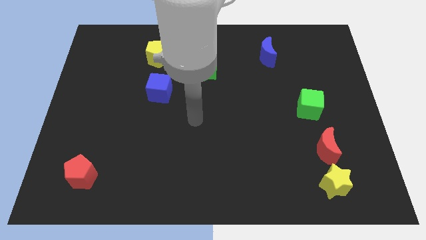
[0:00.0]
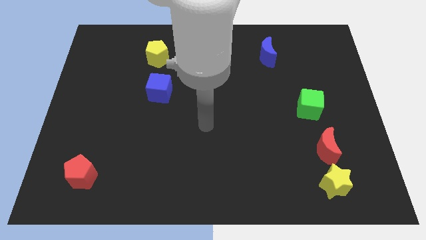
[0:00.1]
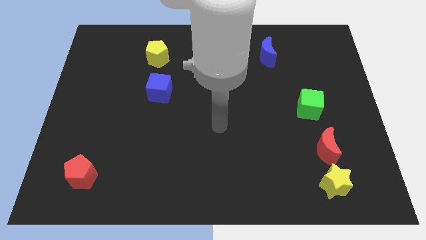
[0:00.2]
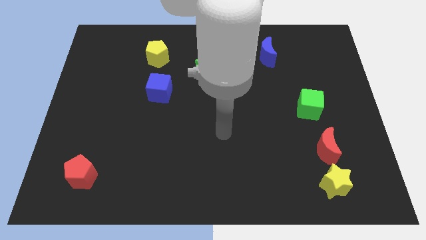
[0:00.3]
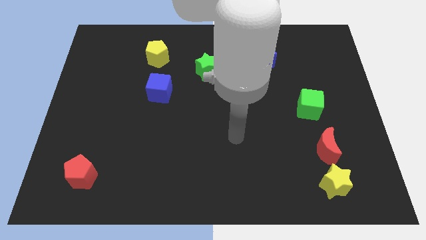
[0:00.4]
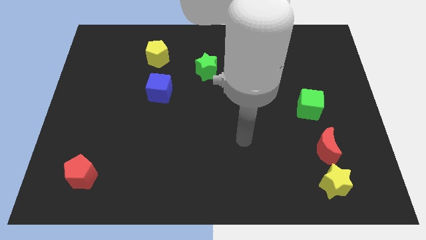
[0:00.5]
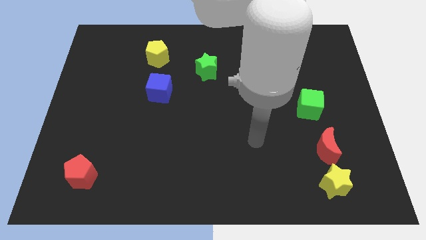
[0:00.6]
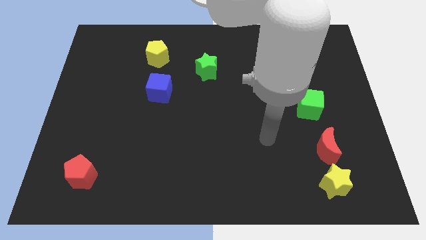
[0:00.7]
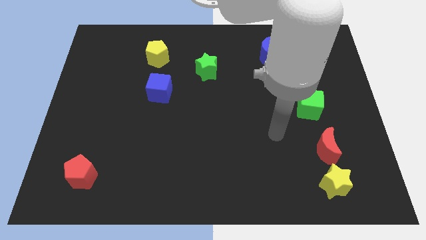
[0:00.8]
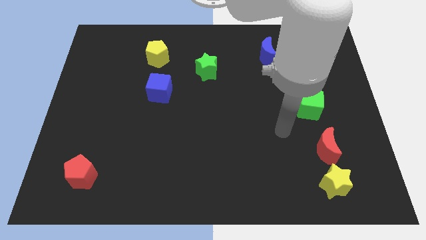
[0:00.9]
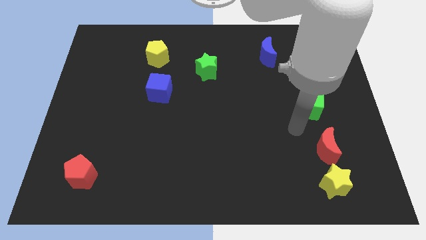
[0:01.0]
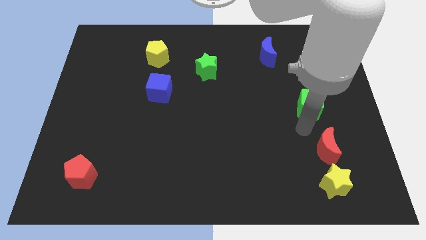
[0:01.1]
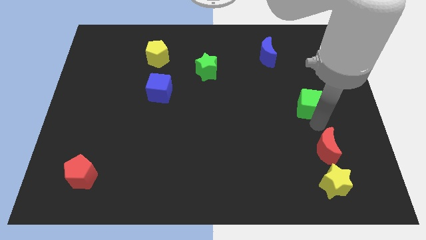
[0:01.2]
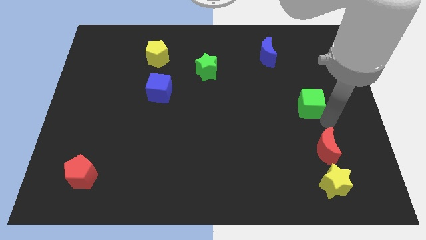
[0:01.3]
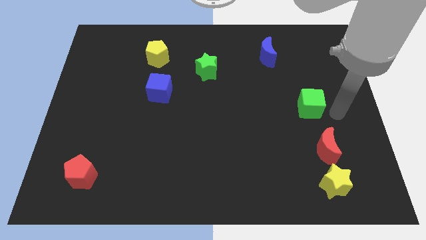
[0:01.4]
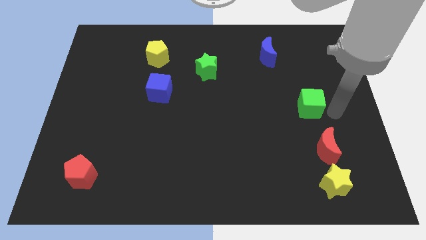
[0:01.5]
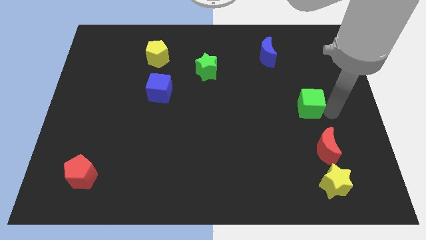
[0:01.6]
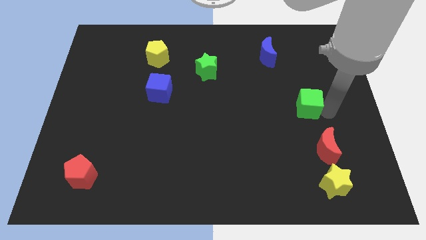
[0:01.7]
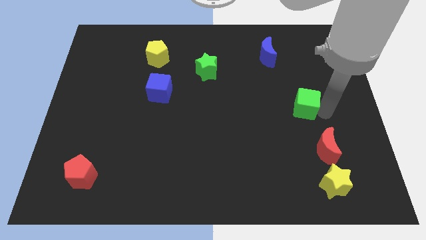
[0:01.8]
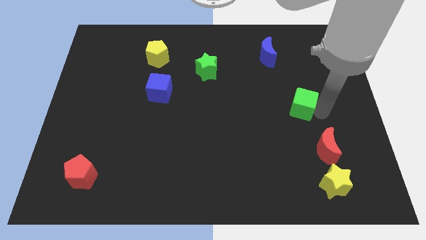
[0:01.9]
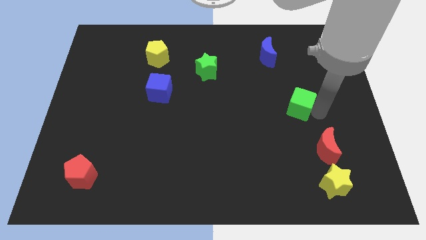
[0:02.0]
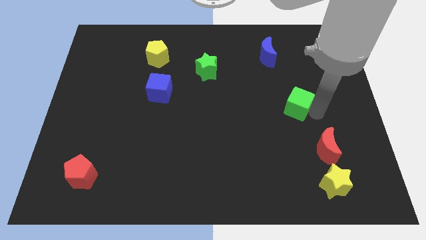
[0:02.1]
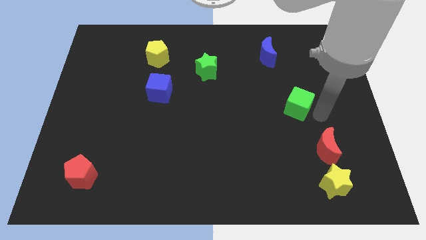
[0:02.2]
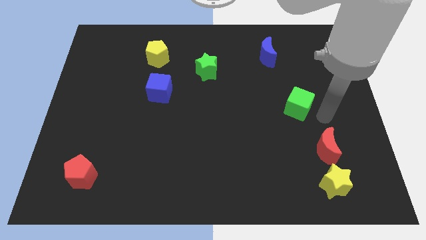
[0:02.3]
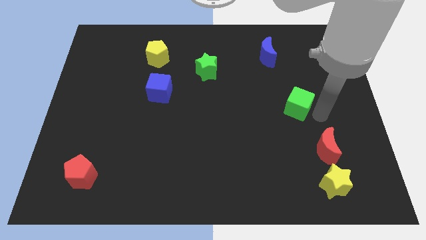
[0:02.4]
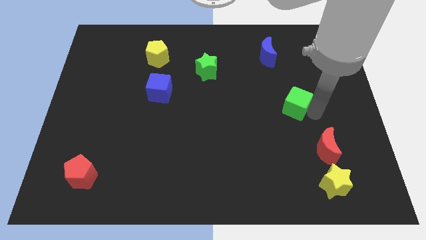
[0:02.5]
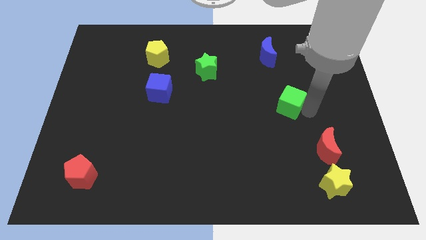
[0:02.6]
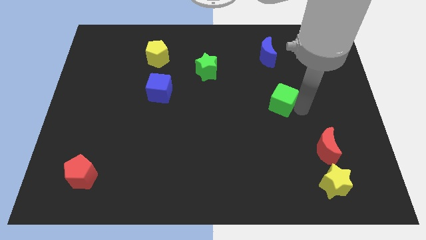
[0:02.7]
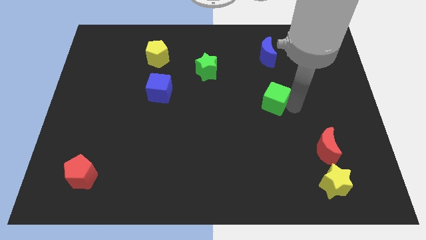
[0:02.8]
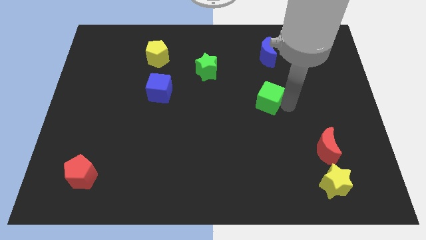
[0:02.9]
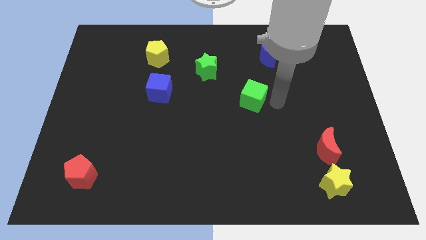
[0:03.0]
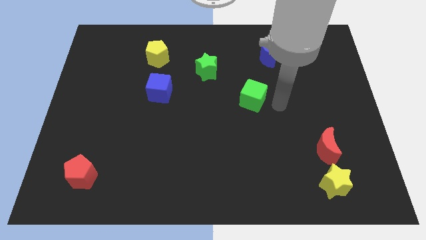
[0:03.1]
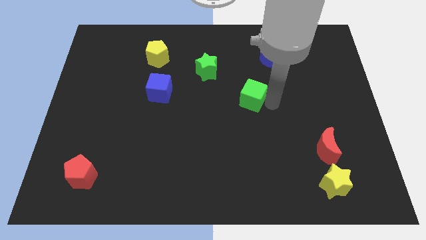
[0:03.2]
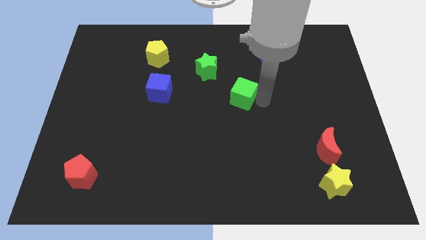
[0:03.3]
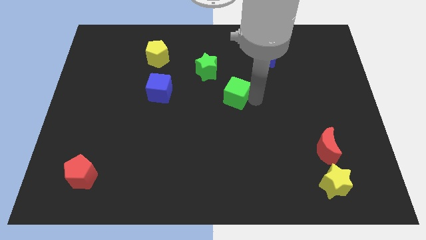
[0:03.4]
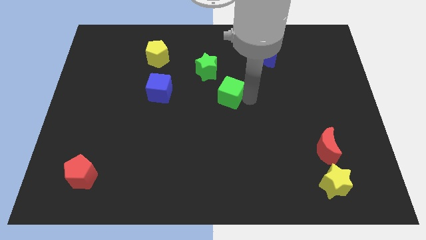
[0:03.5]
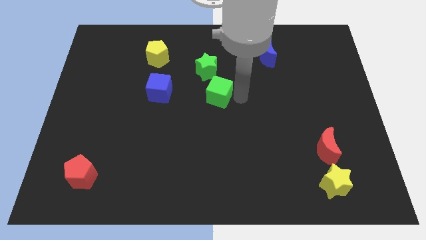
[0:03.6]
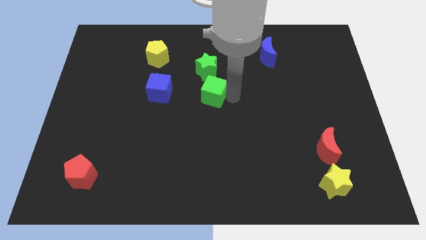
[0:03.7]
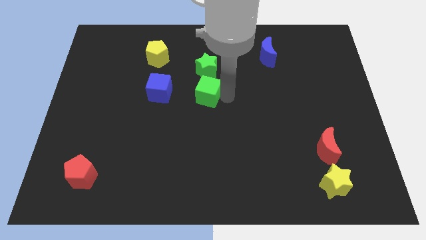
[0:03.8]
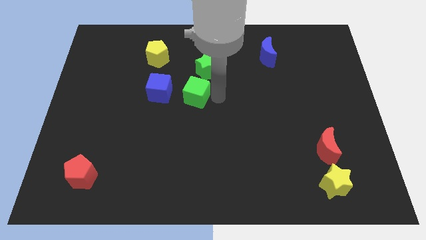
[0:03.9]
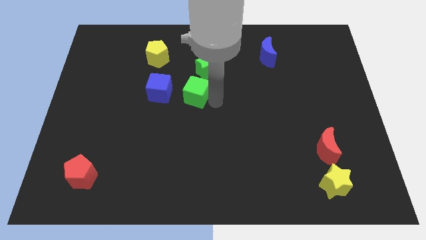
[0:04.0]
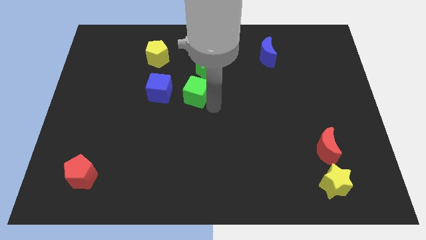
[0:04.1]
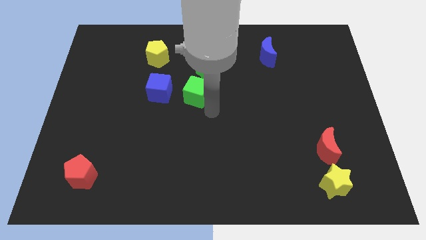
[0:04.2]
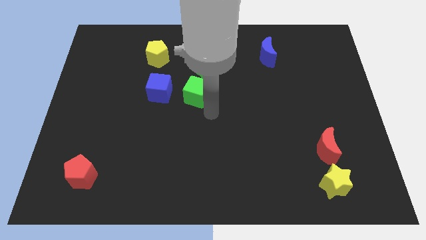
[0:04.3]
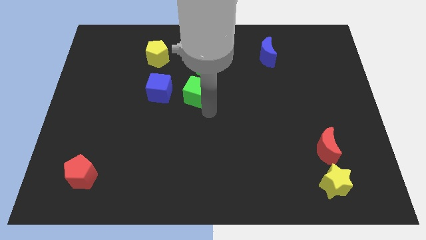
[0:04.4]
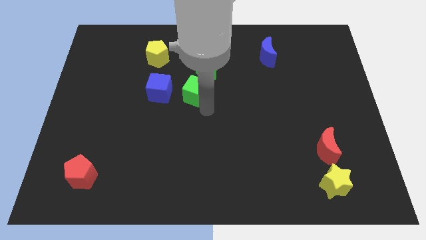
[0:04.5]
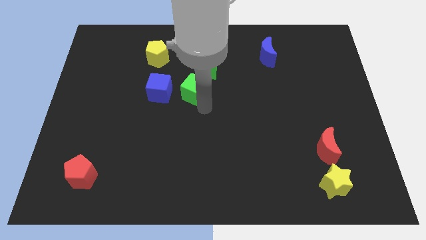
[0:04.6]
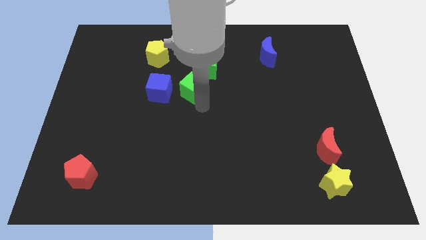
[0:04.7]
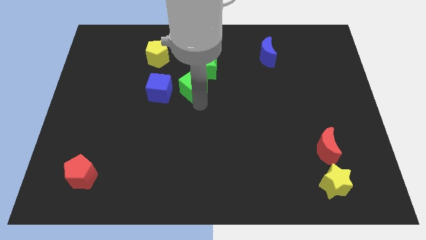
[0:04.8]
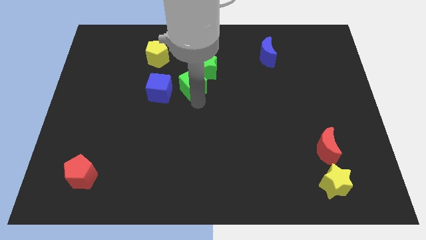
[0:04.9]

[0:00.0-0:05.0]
slide the green cube diagonally up and to the right of the blue cube

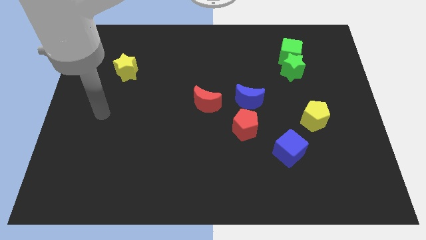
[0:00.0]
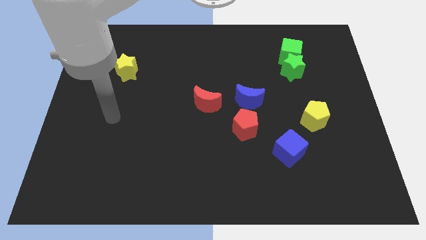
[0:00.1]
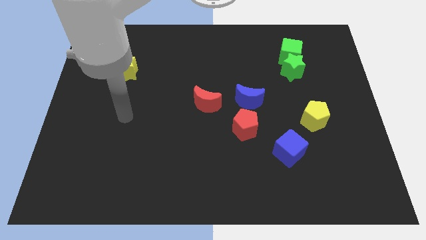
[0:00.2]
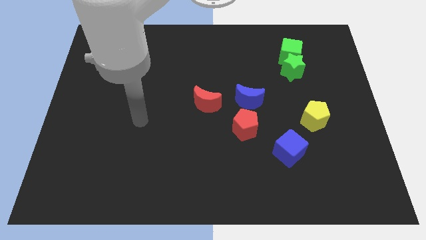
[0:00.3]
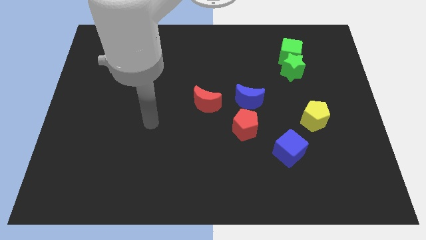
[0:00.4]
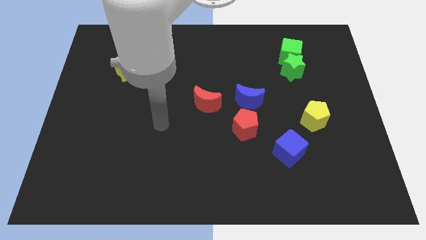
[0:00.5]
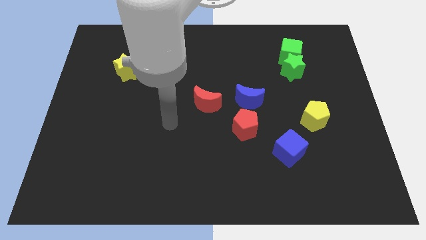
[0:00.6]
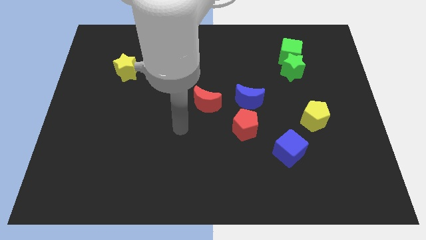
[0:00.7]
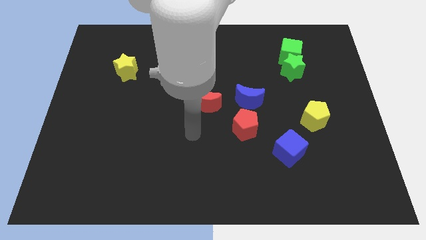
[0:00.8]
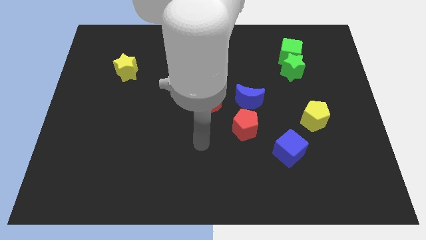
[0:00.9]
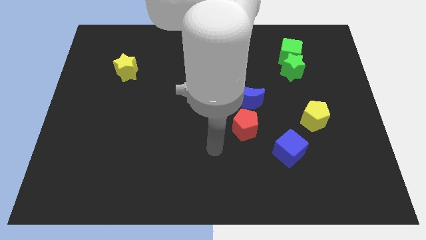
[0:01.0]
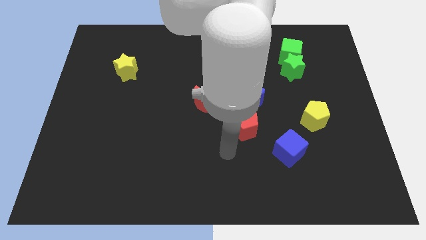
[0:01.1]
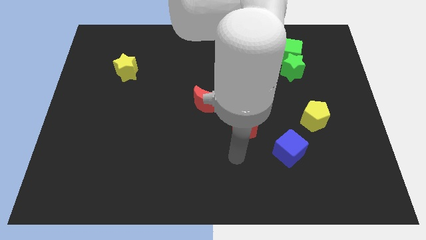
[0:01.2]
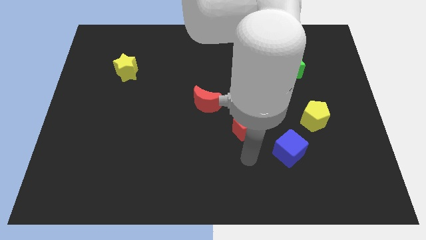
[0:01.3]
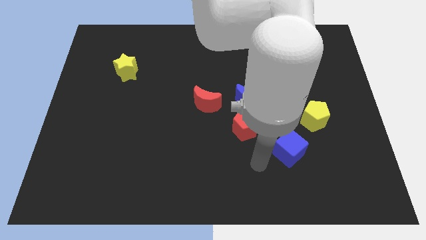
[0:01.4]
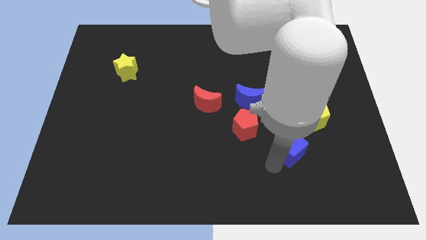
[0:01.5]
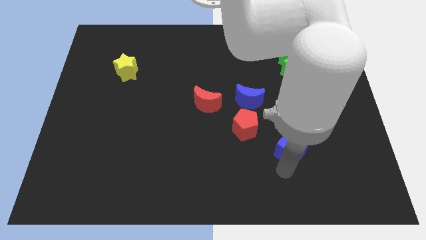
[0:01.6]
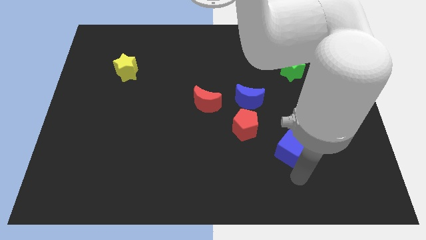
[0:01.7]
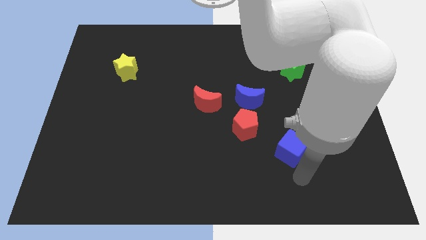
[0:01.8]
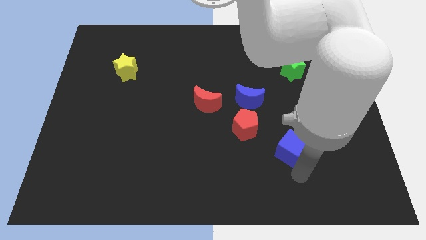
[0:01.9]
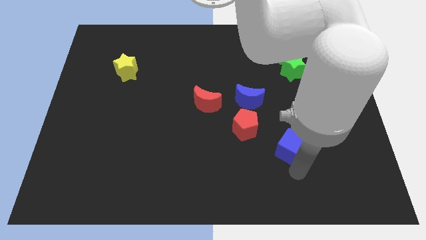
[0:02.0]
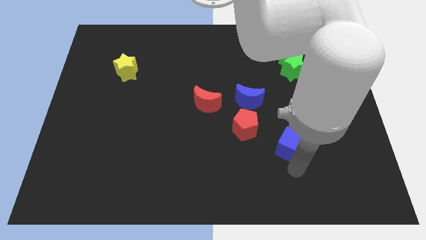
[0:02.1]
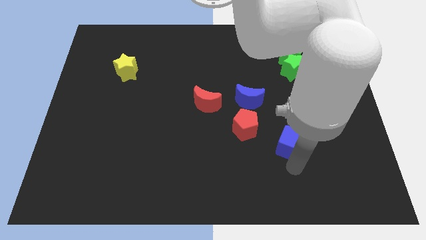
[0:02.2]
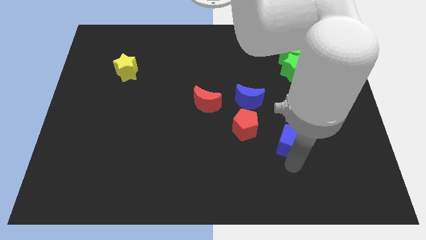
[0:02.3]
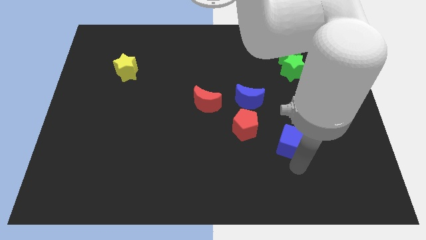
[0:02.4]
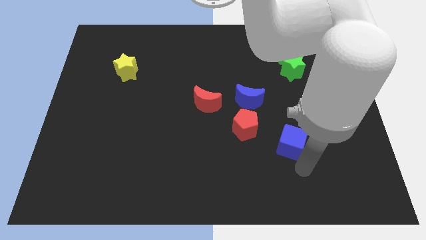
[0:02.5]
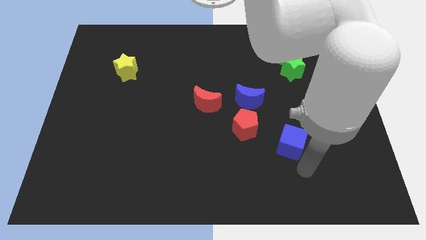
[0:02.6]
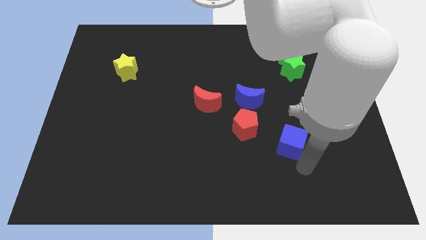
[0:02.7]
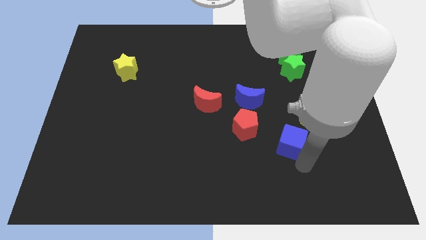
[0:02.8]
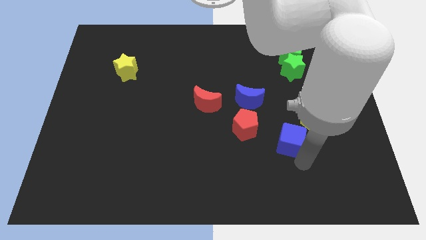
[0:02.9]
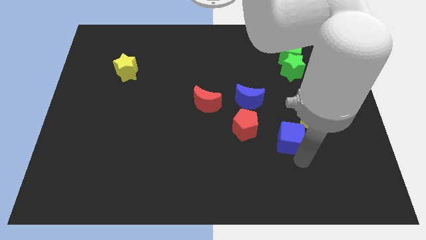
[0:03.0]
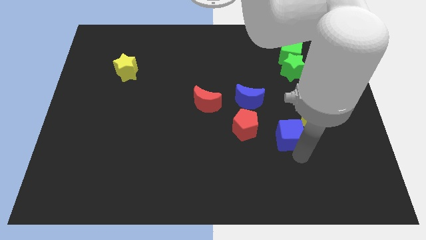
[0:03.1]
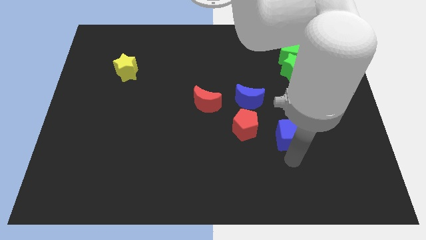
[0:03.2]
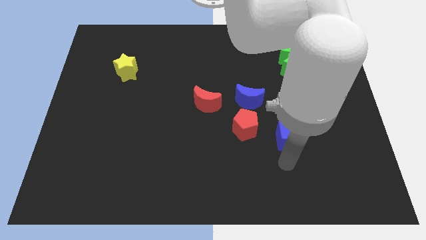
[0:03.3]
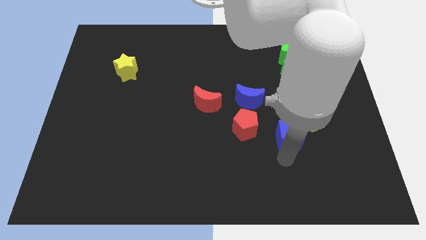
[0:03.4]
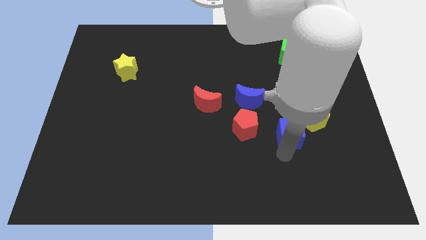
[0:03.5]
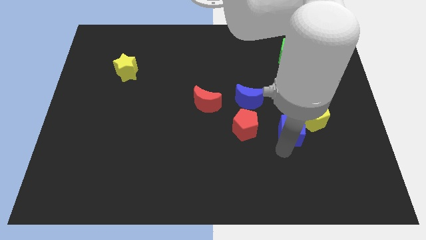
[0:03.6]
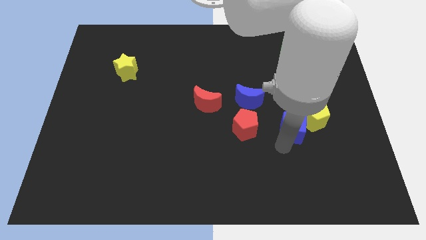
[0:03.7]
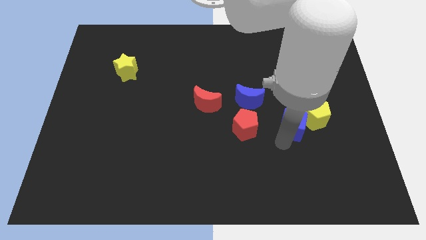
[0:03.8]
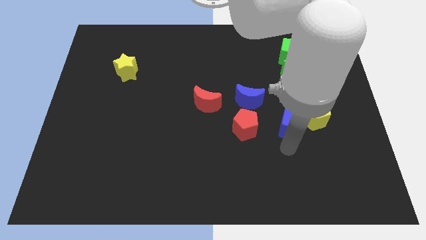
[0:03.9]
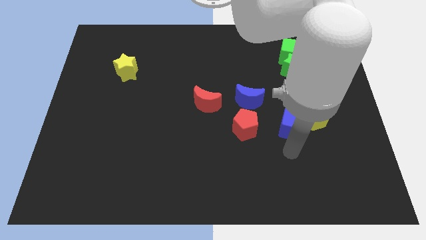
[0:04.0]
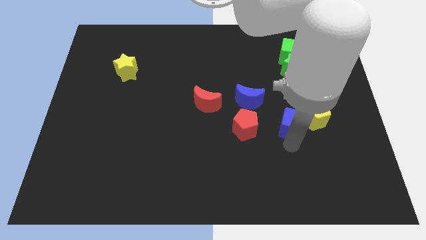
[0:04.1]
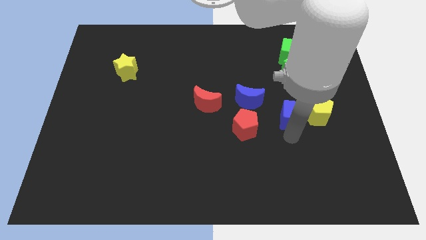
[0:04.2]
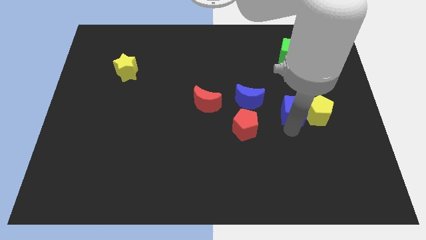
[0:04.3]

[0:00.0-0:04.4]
put the blue cube to the right side of the blue moon
